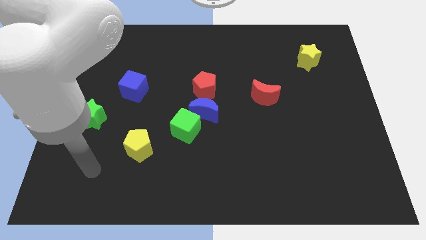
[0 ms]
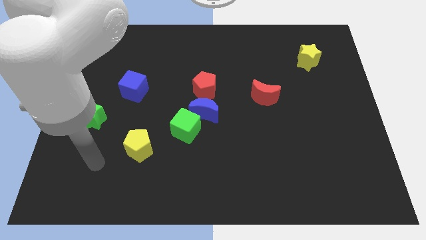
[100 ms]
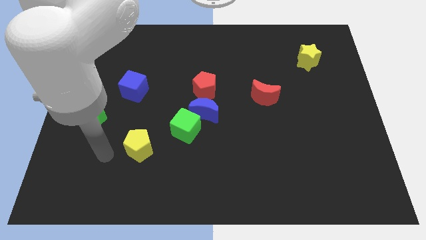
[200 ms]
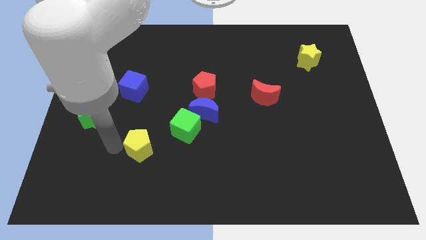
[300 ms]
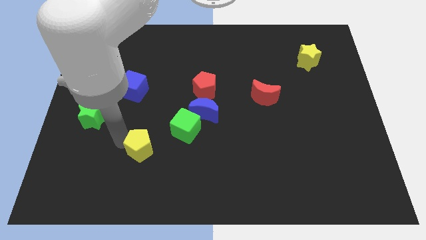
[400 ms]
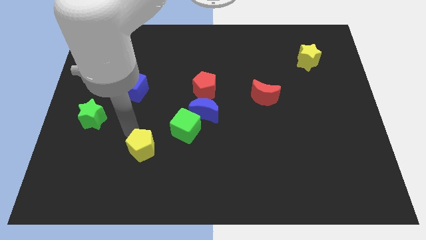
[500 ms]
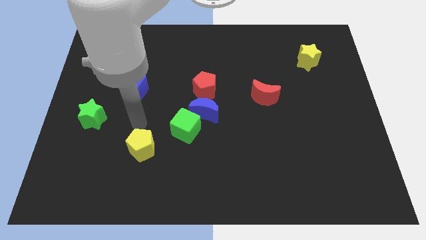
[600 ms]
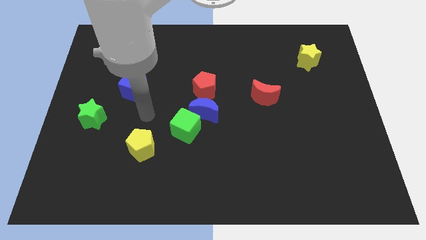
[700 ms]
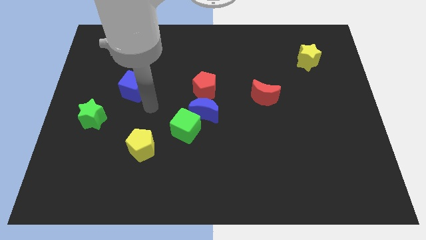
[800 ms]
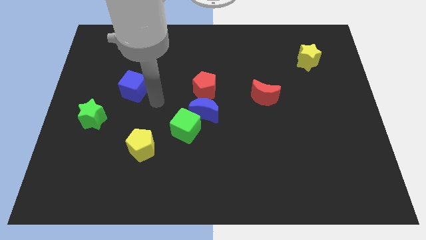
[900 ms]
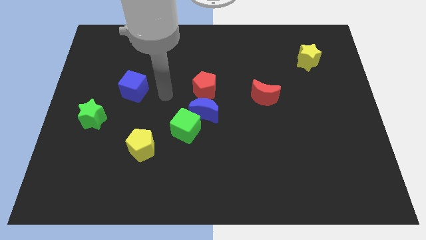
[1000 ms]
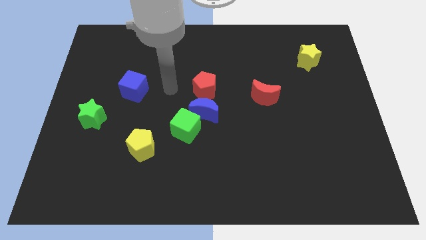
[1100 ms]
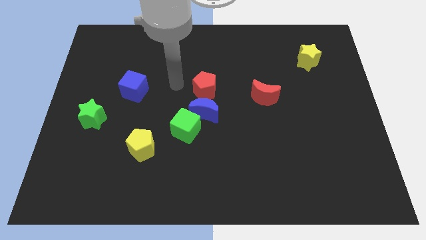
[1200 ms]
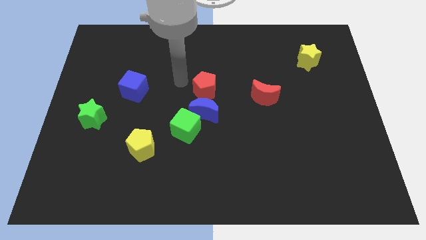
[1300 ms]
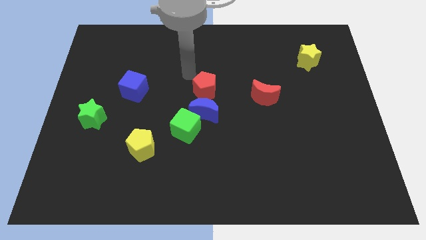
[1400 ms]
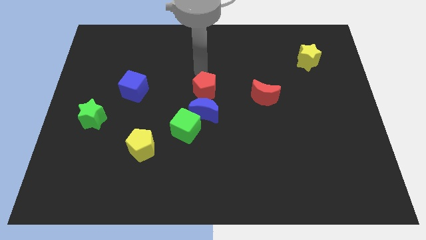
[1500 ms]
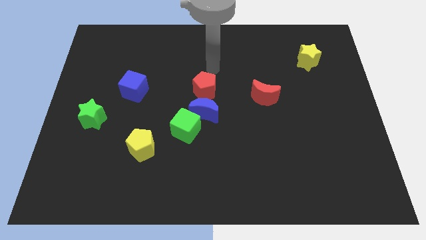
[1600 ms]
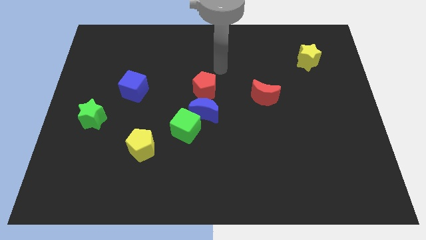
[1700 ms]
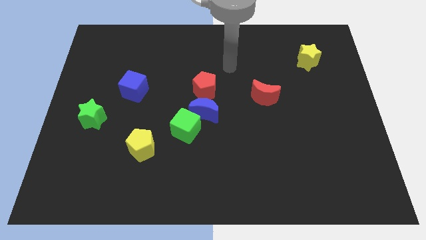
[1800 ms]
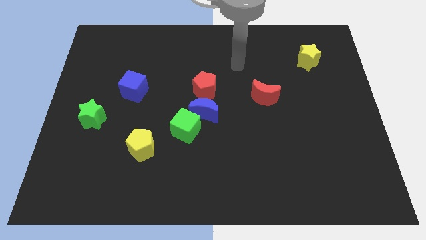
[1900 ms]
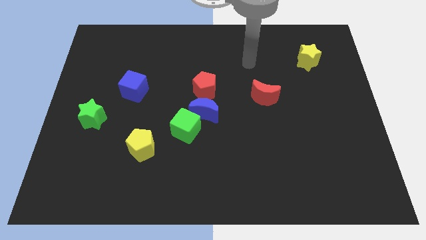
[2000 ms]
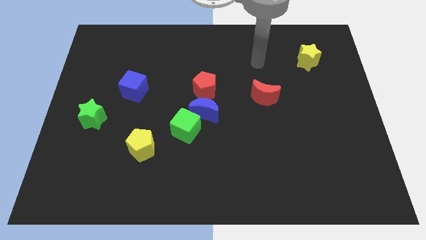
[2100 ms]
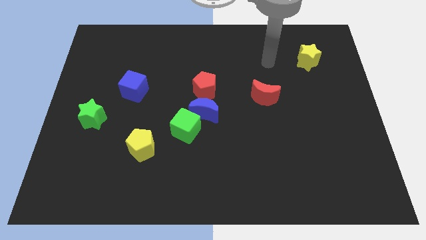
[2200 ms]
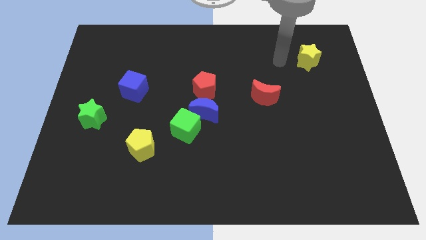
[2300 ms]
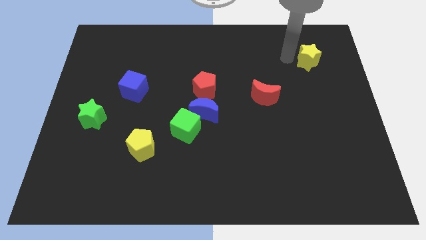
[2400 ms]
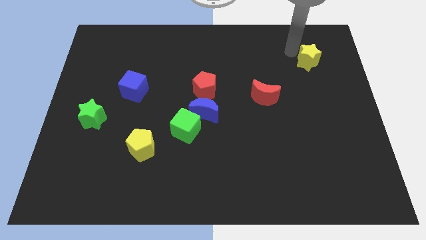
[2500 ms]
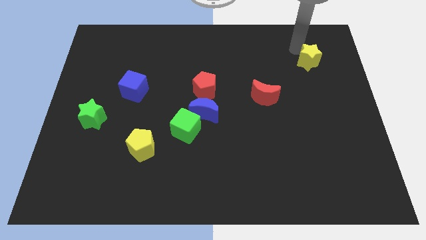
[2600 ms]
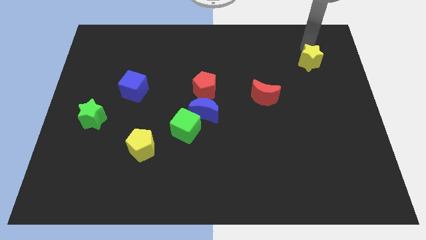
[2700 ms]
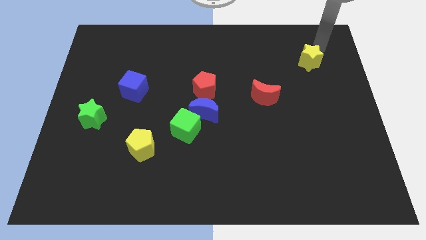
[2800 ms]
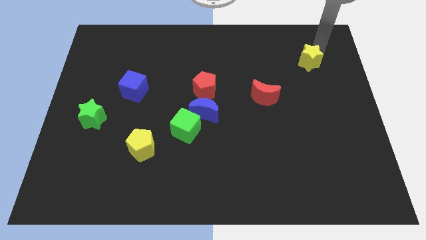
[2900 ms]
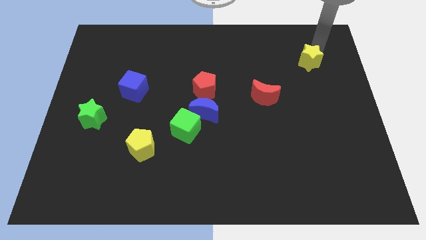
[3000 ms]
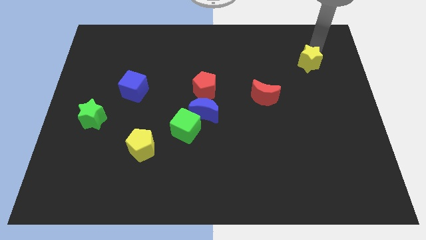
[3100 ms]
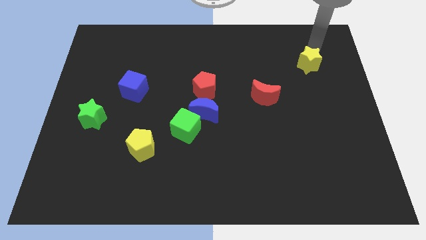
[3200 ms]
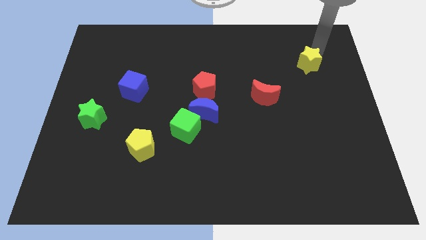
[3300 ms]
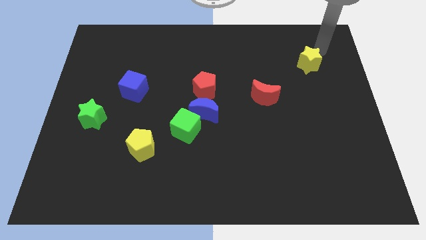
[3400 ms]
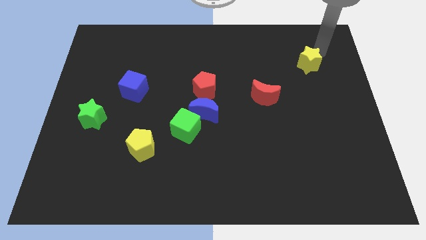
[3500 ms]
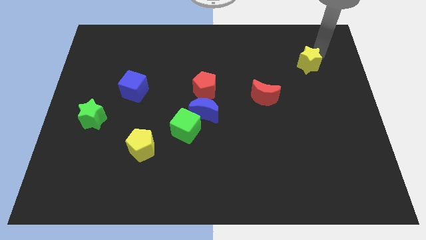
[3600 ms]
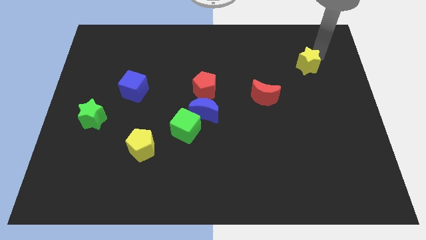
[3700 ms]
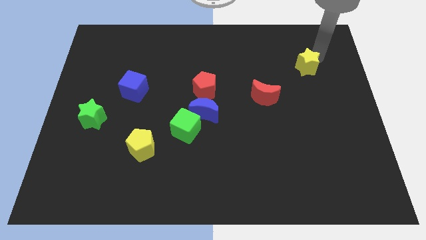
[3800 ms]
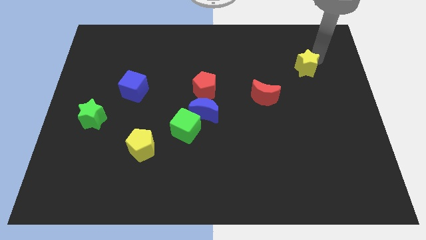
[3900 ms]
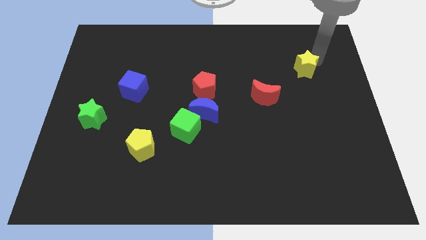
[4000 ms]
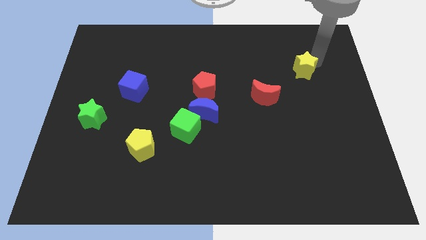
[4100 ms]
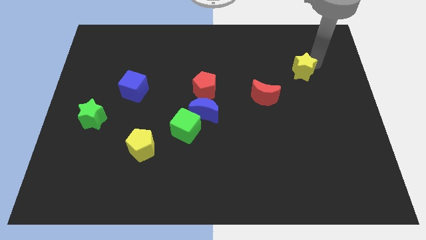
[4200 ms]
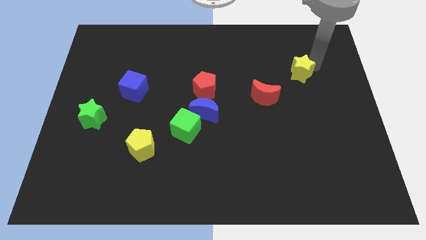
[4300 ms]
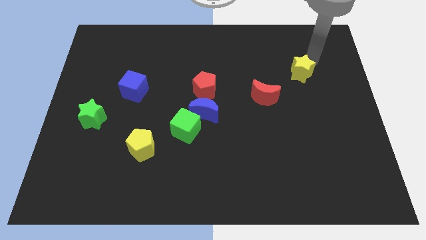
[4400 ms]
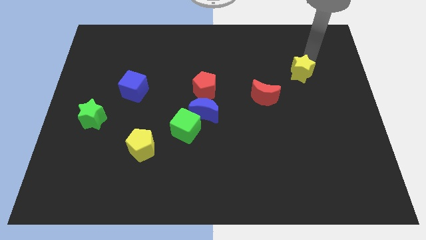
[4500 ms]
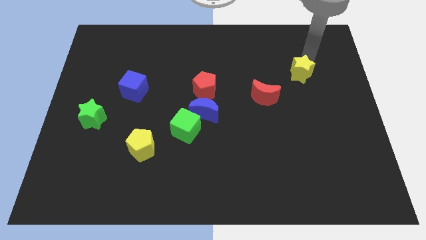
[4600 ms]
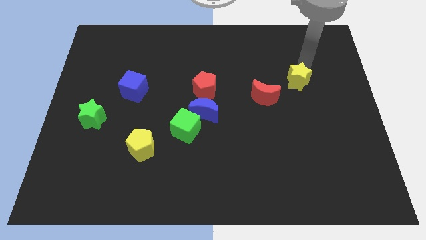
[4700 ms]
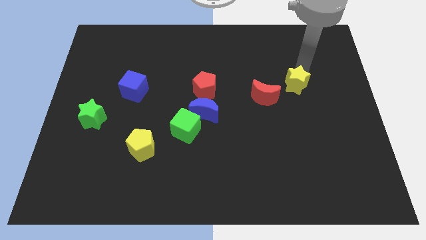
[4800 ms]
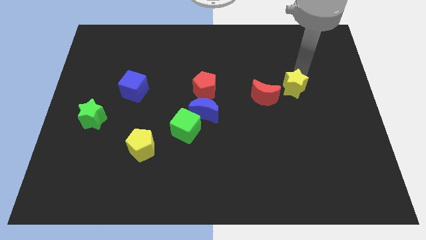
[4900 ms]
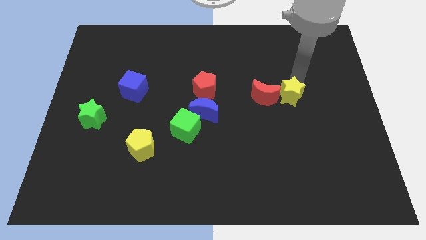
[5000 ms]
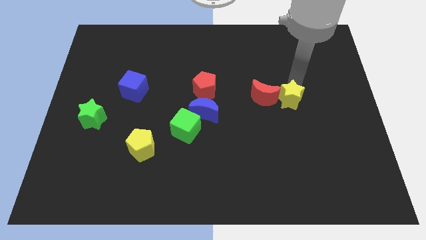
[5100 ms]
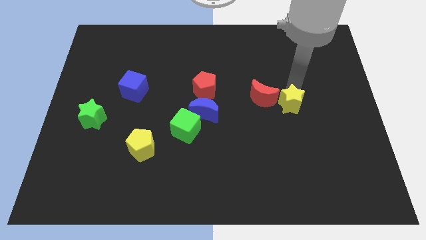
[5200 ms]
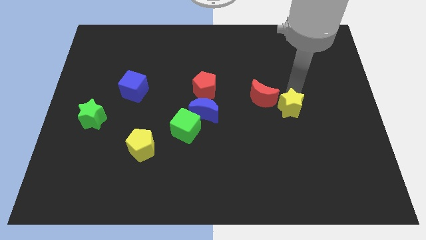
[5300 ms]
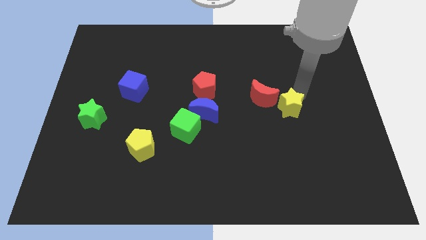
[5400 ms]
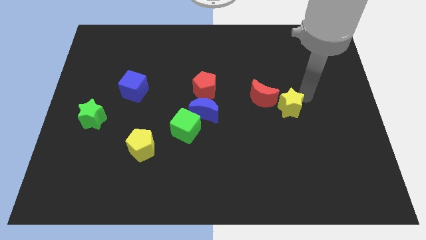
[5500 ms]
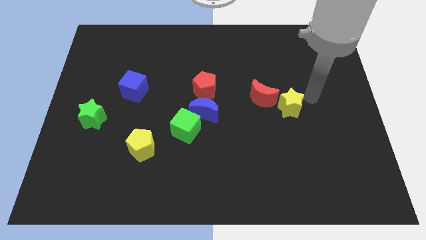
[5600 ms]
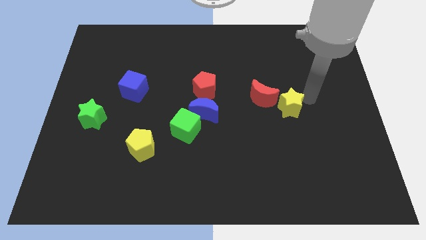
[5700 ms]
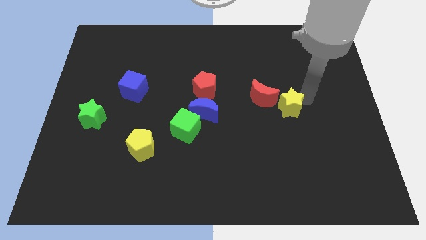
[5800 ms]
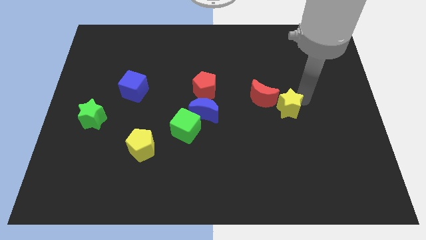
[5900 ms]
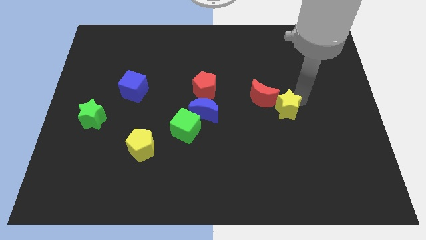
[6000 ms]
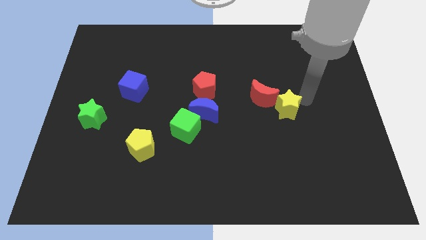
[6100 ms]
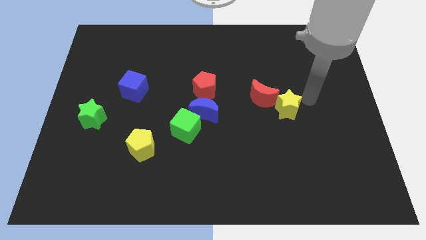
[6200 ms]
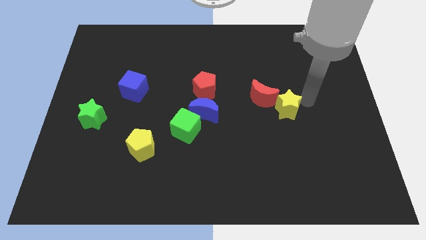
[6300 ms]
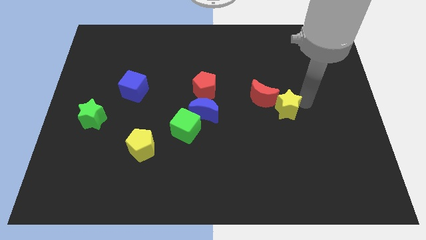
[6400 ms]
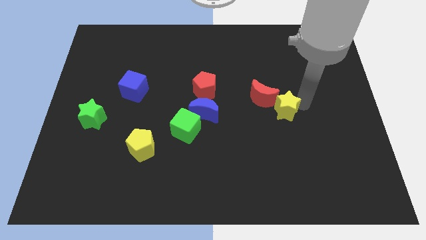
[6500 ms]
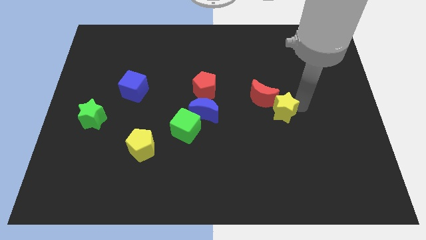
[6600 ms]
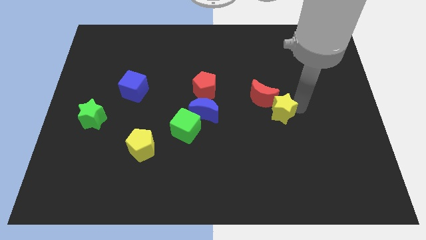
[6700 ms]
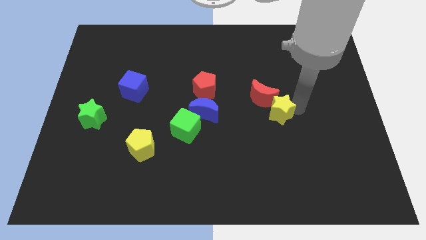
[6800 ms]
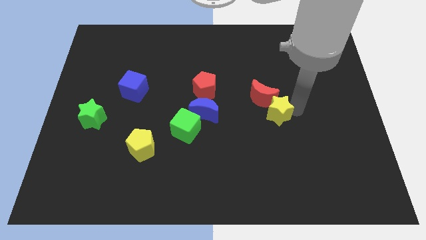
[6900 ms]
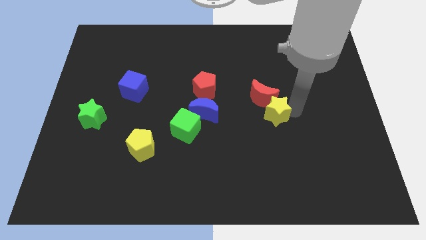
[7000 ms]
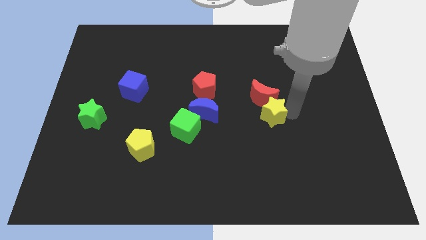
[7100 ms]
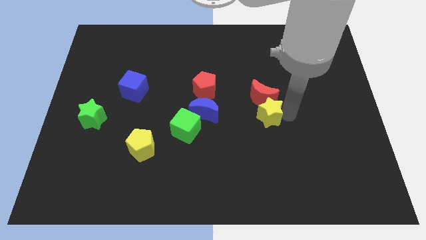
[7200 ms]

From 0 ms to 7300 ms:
slide the yellow star diagonally down and left

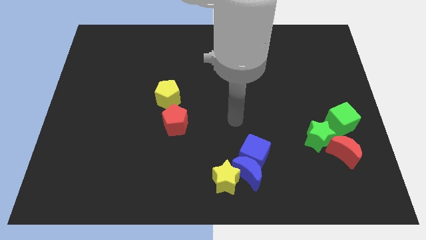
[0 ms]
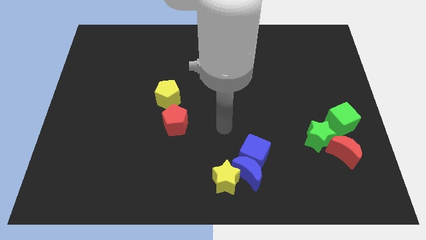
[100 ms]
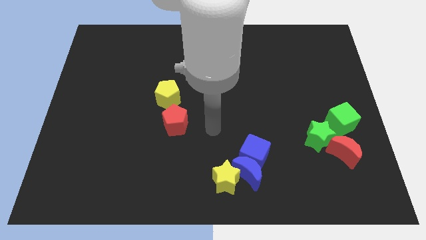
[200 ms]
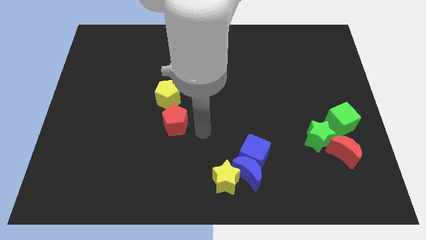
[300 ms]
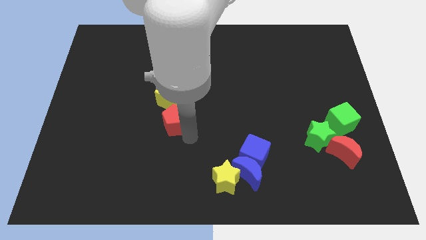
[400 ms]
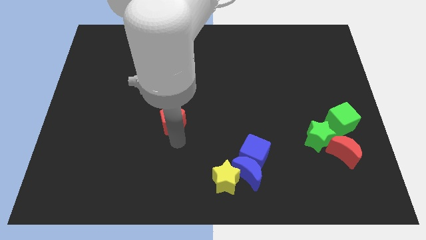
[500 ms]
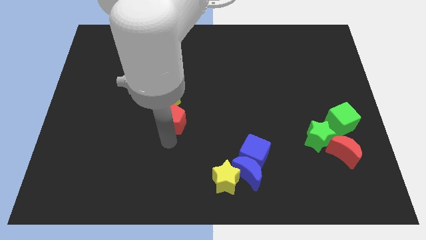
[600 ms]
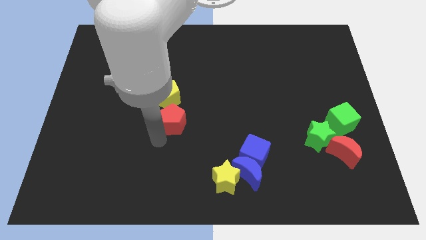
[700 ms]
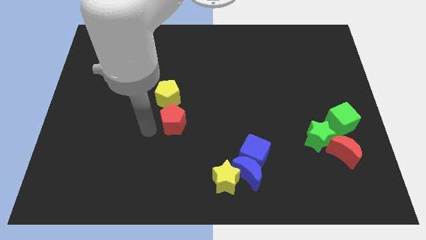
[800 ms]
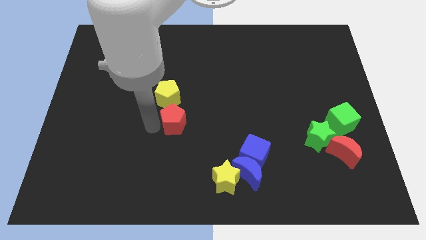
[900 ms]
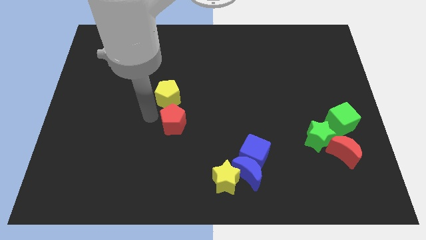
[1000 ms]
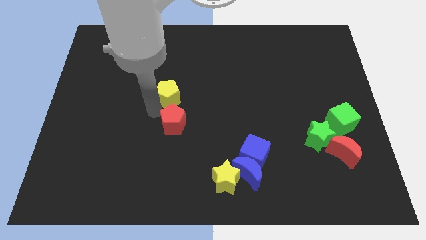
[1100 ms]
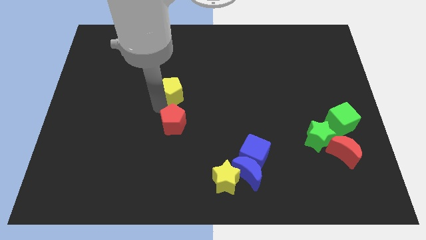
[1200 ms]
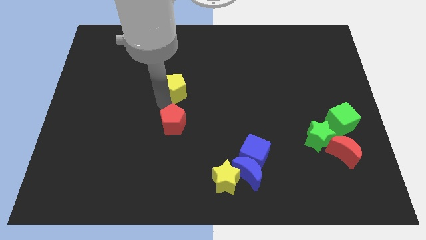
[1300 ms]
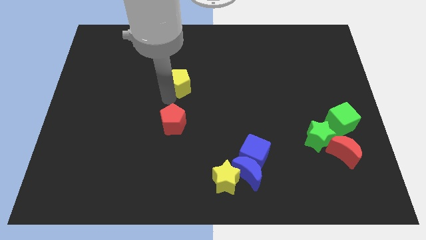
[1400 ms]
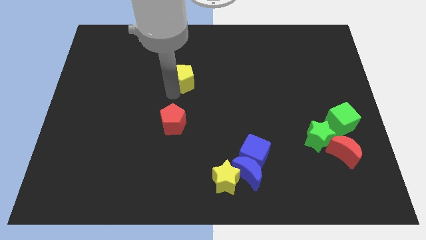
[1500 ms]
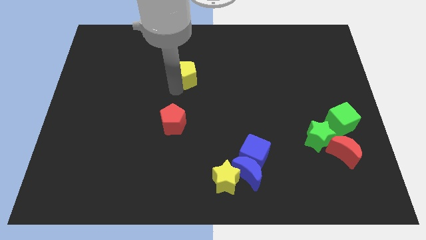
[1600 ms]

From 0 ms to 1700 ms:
move the yellow pentagon somewhat up and to the right diagonally
